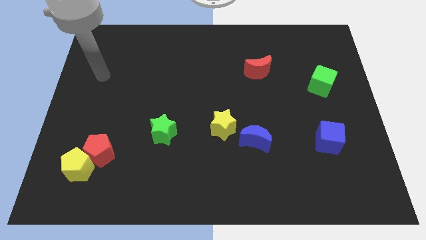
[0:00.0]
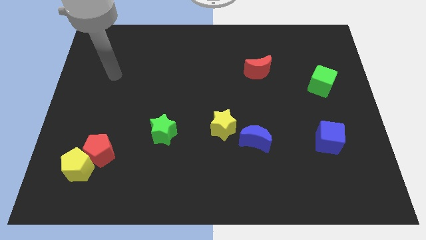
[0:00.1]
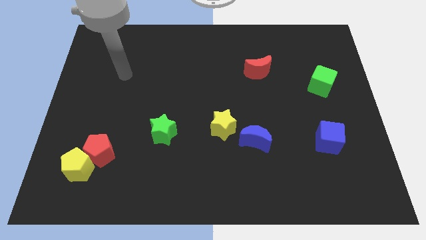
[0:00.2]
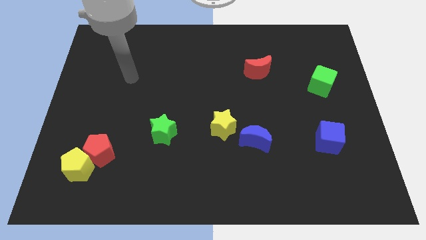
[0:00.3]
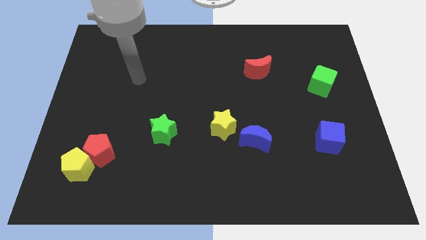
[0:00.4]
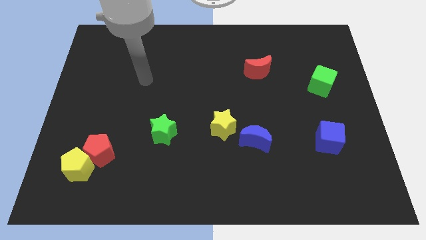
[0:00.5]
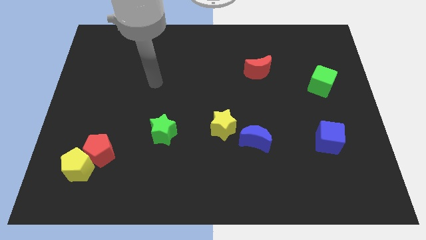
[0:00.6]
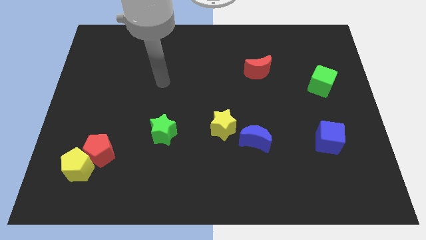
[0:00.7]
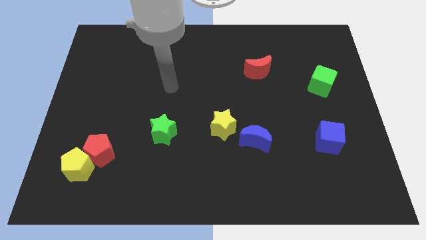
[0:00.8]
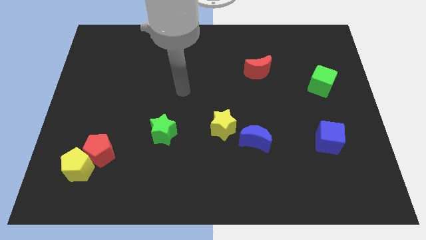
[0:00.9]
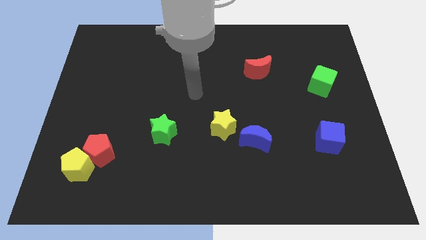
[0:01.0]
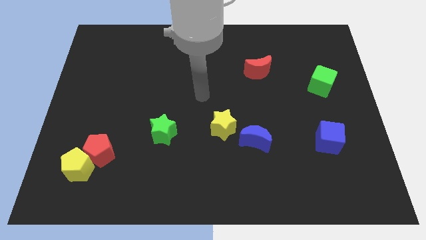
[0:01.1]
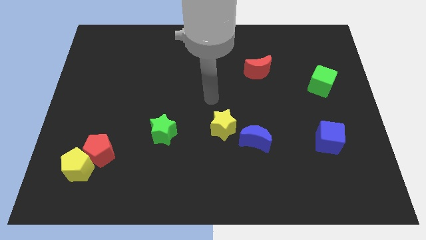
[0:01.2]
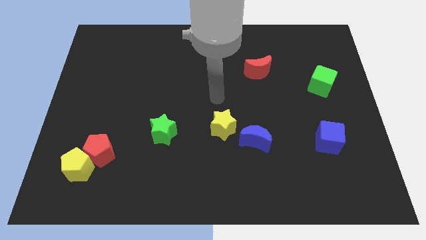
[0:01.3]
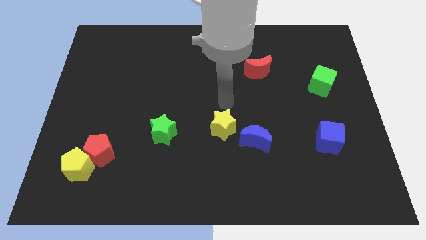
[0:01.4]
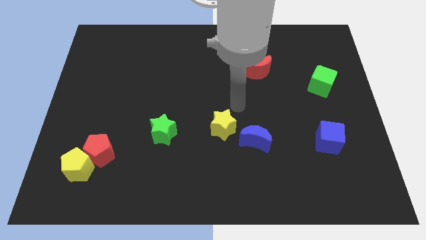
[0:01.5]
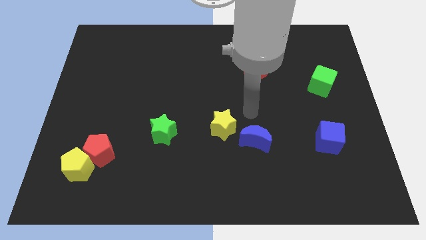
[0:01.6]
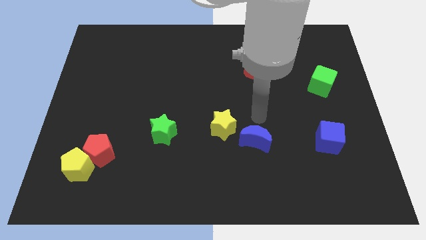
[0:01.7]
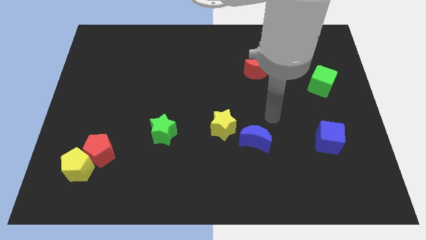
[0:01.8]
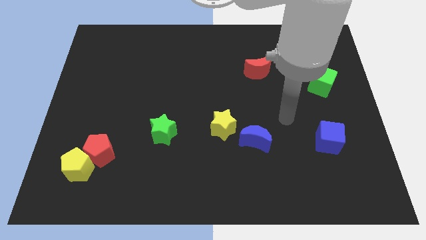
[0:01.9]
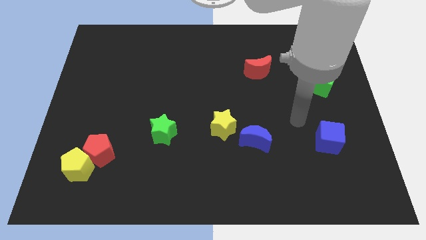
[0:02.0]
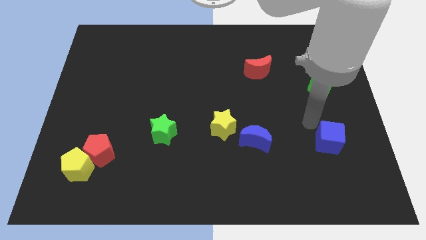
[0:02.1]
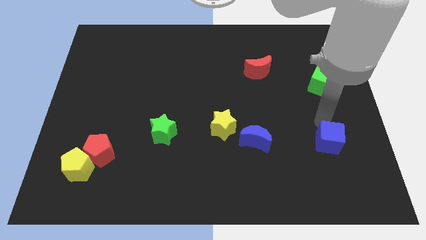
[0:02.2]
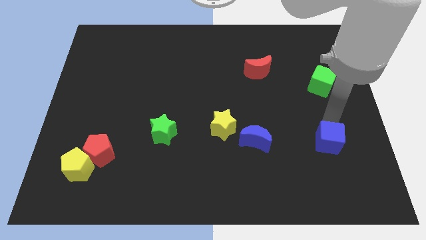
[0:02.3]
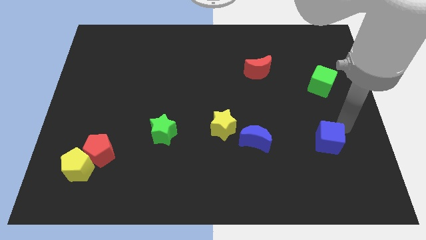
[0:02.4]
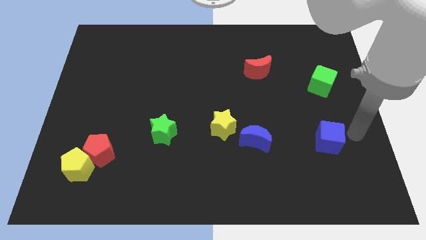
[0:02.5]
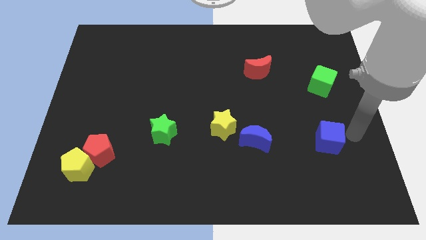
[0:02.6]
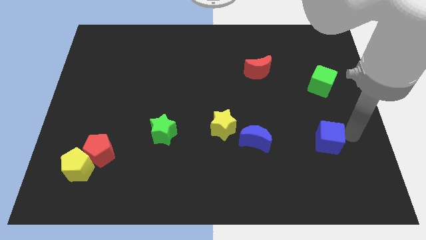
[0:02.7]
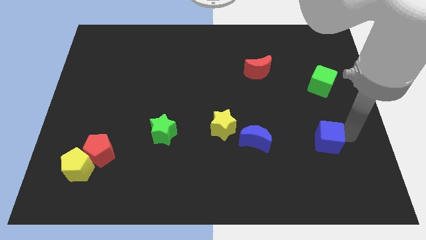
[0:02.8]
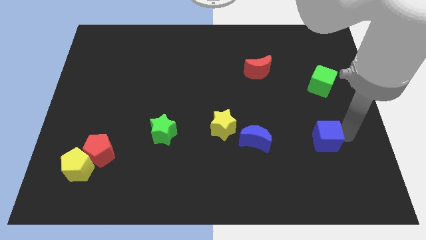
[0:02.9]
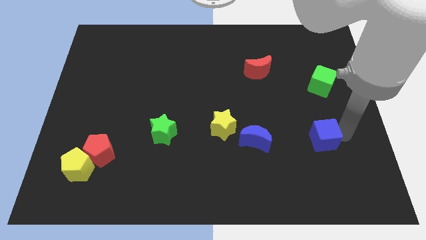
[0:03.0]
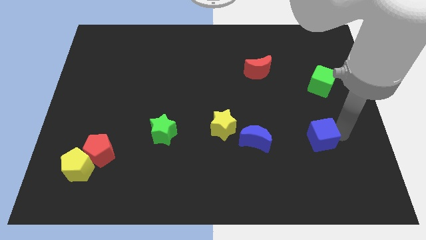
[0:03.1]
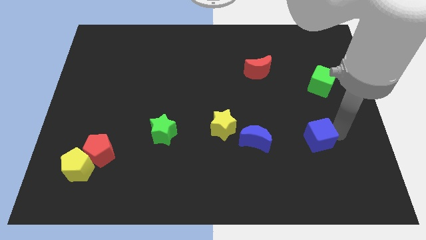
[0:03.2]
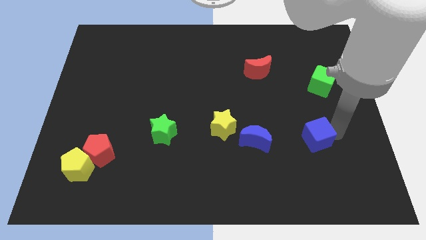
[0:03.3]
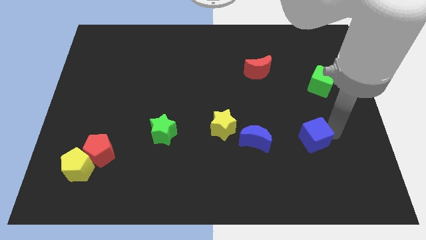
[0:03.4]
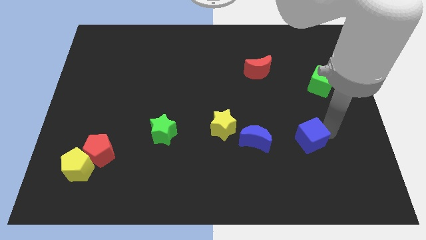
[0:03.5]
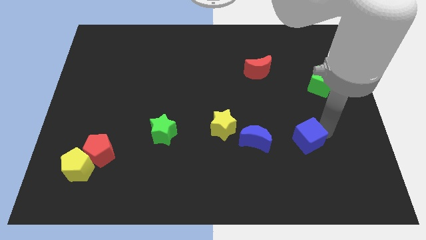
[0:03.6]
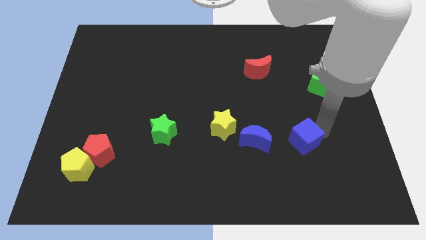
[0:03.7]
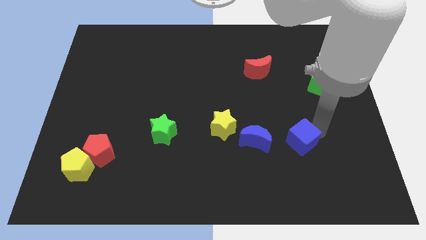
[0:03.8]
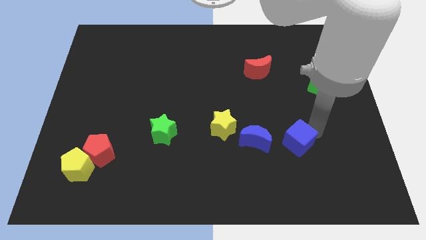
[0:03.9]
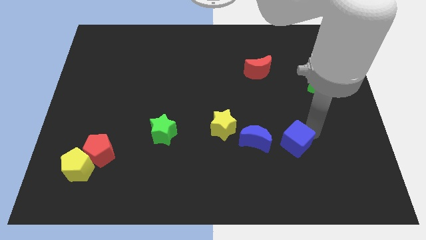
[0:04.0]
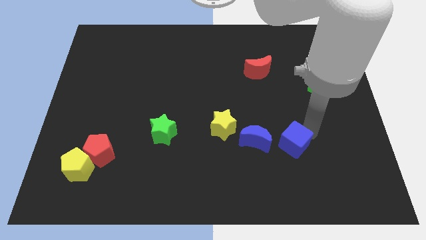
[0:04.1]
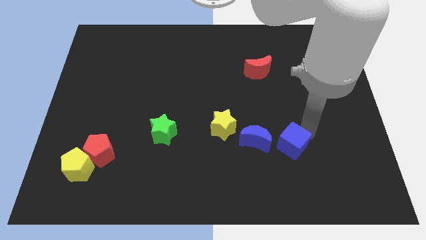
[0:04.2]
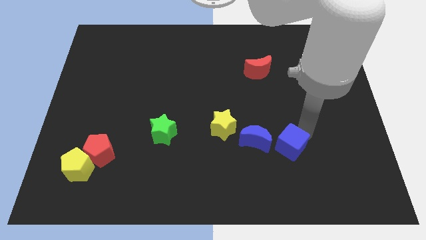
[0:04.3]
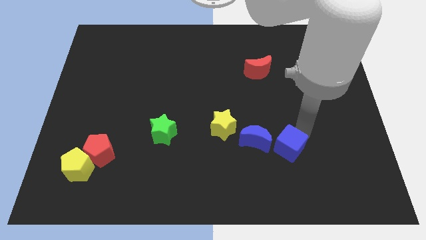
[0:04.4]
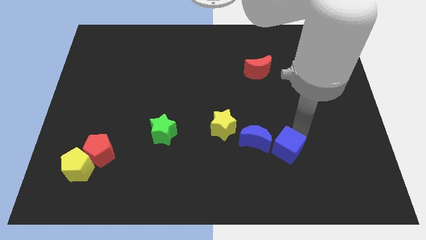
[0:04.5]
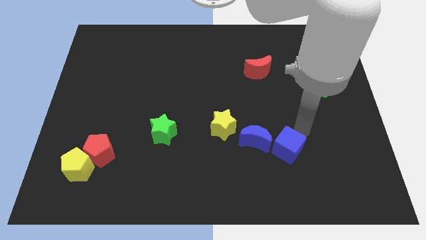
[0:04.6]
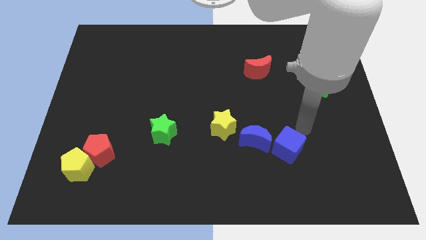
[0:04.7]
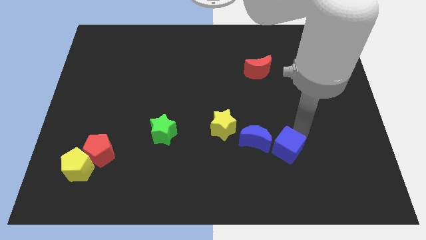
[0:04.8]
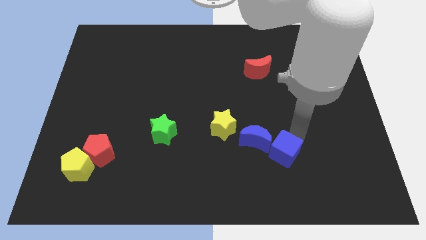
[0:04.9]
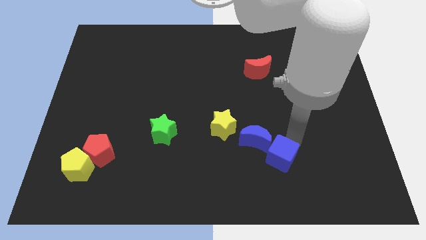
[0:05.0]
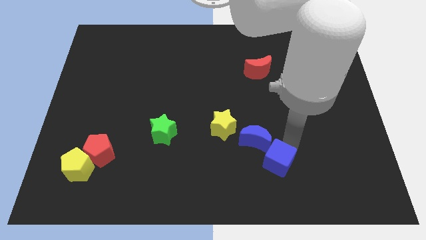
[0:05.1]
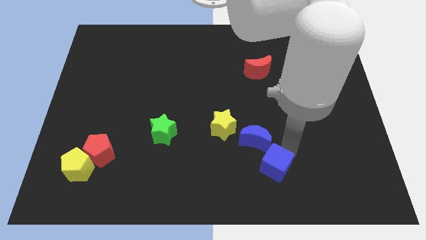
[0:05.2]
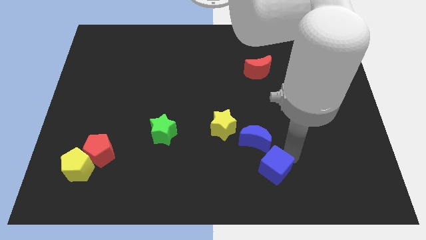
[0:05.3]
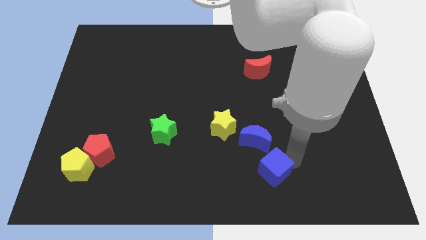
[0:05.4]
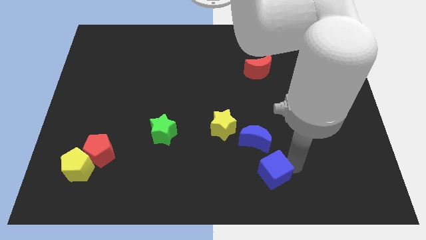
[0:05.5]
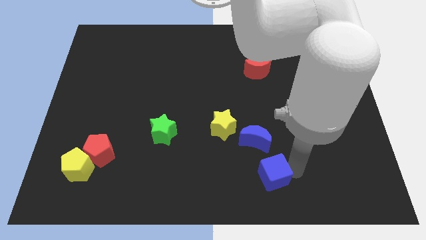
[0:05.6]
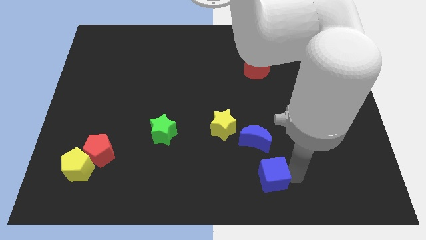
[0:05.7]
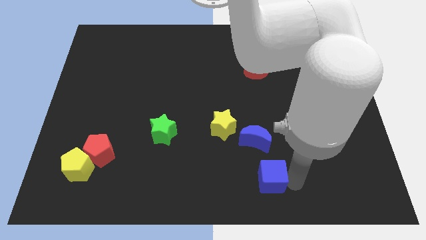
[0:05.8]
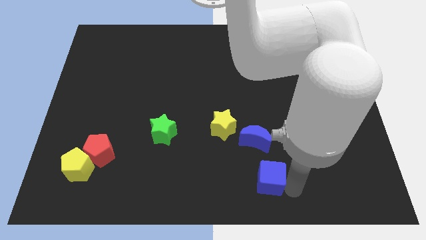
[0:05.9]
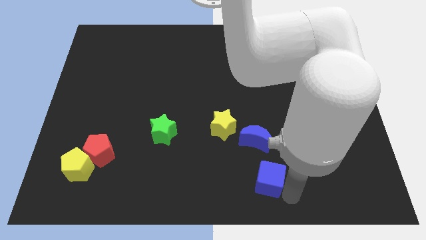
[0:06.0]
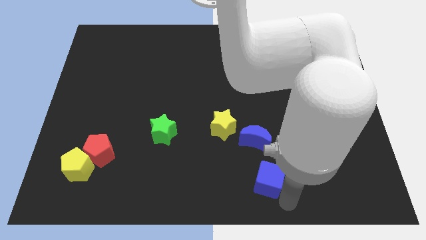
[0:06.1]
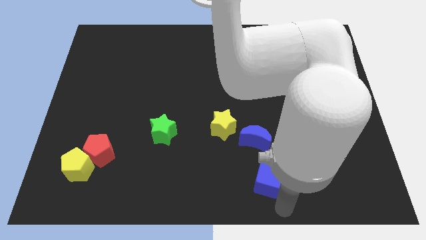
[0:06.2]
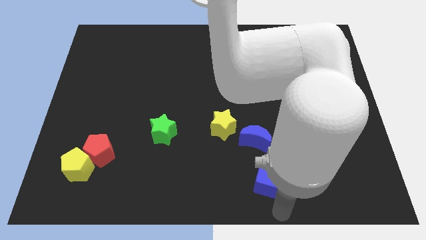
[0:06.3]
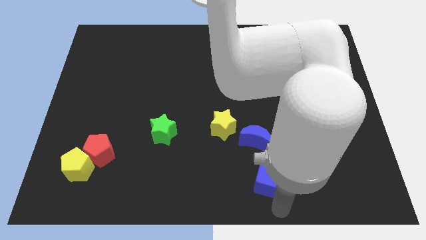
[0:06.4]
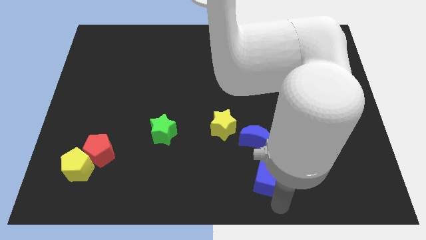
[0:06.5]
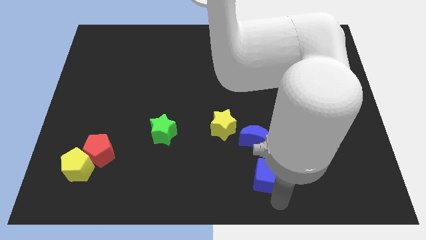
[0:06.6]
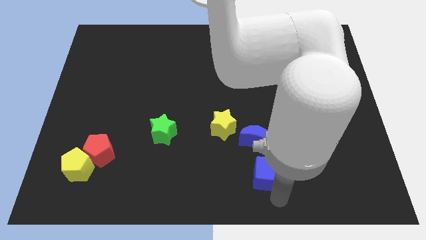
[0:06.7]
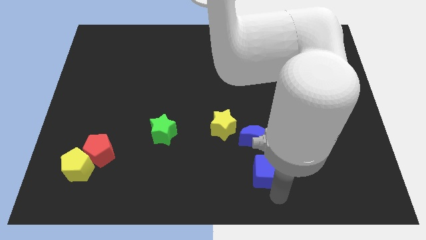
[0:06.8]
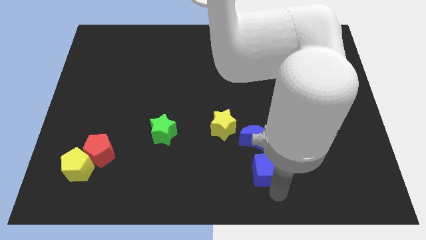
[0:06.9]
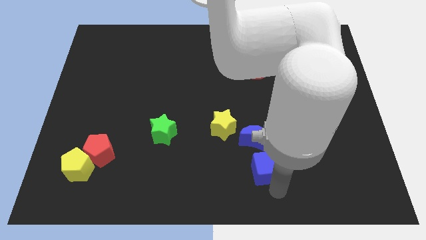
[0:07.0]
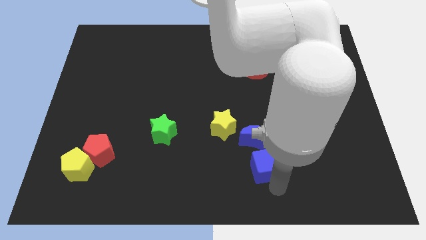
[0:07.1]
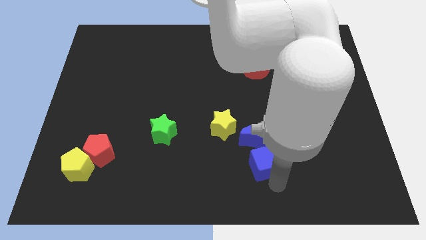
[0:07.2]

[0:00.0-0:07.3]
slide the blue cube to the bottom right side of the yellow star
